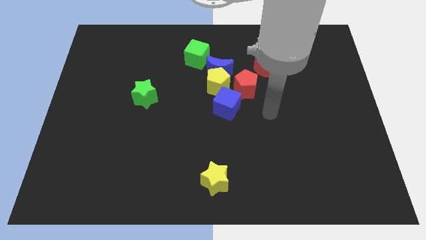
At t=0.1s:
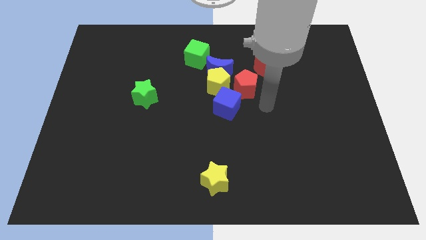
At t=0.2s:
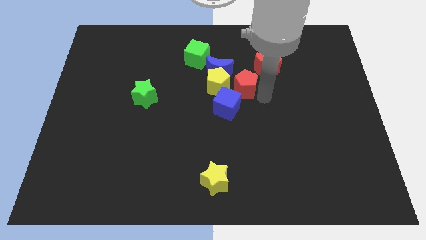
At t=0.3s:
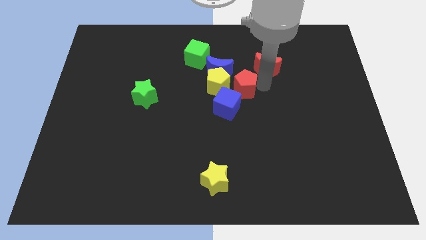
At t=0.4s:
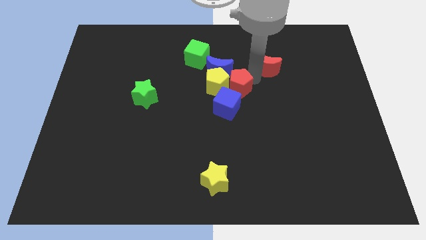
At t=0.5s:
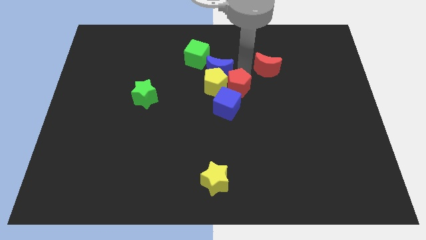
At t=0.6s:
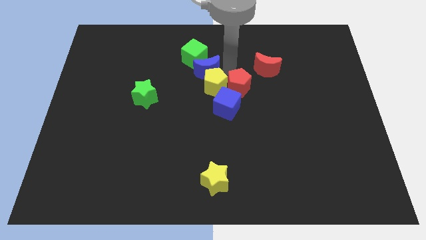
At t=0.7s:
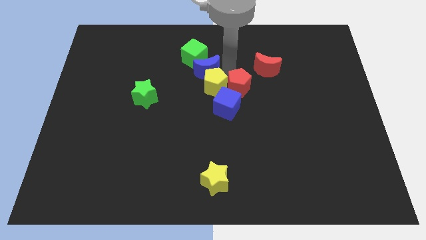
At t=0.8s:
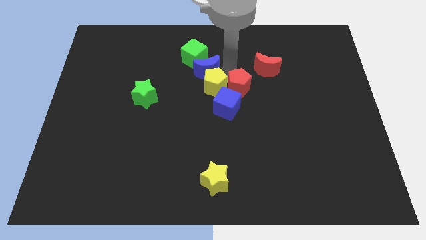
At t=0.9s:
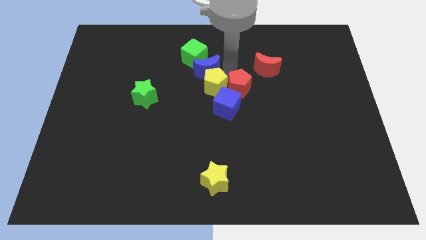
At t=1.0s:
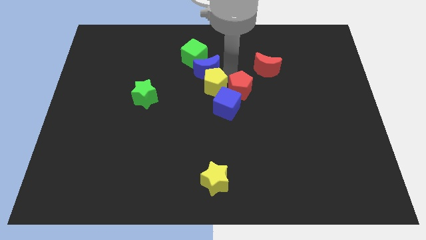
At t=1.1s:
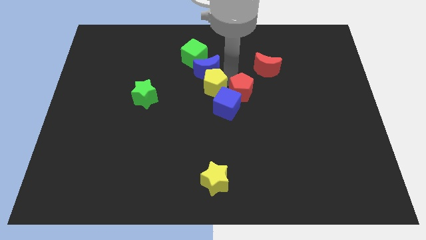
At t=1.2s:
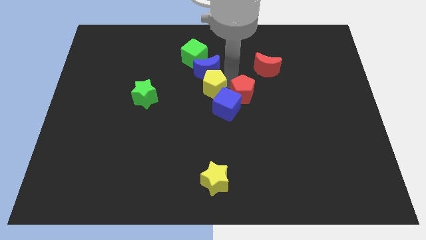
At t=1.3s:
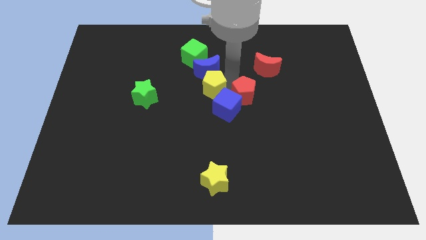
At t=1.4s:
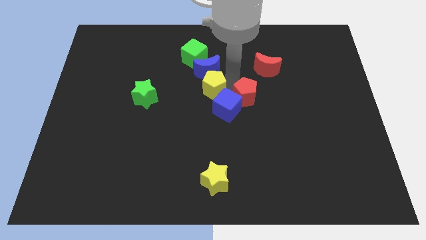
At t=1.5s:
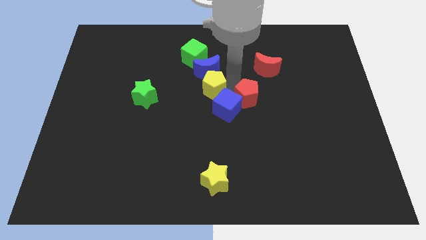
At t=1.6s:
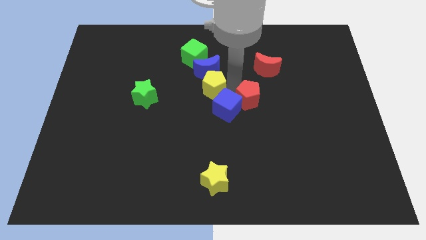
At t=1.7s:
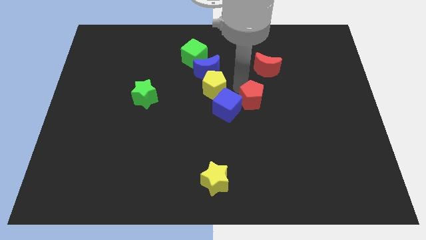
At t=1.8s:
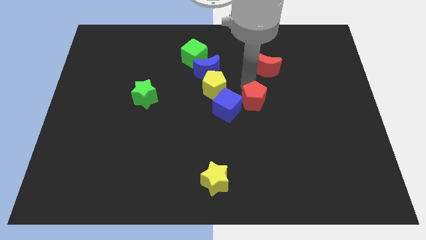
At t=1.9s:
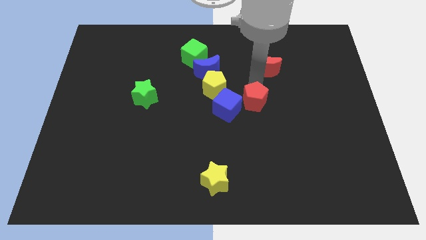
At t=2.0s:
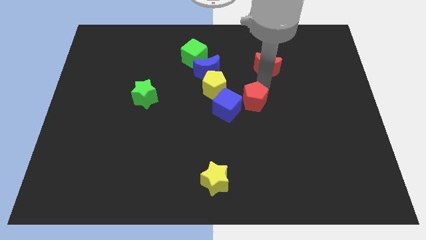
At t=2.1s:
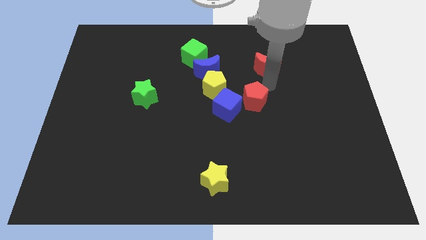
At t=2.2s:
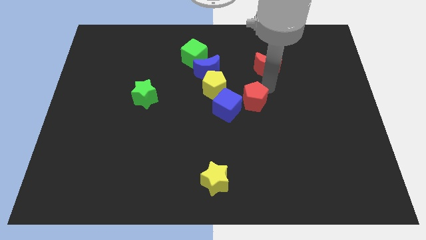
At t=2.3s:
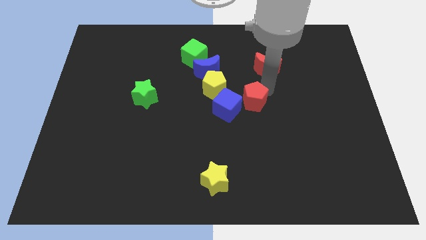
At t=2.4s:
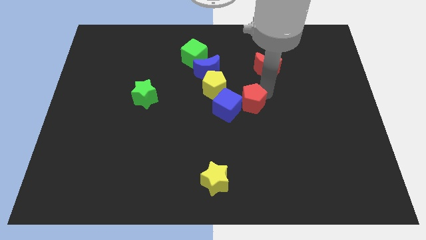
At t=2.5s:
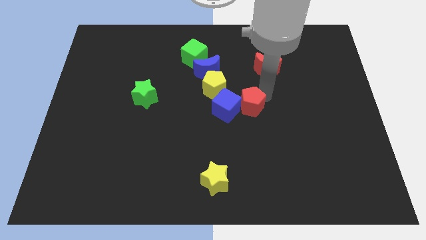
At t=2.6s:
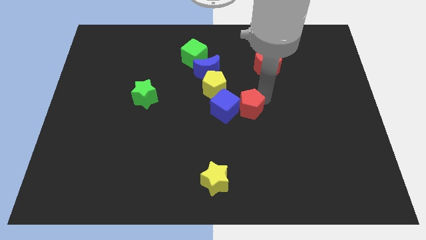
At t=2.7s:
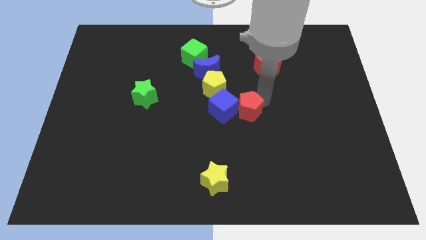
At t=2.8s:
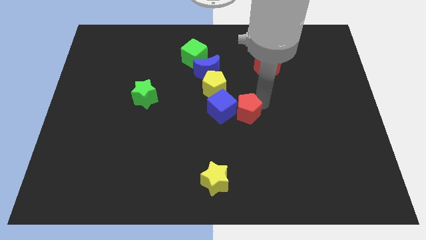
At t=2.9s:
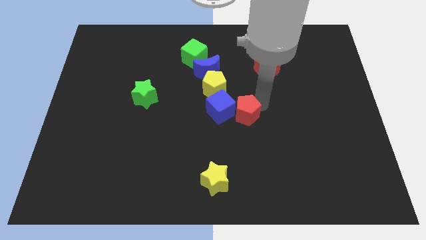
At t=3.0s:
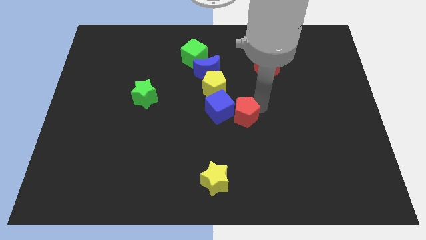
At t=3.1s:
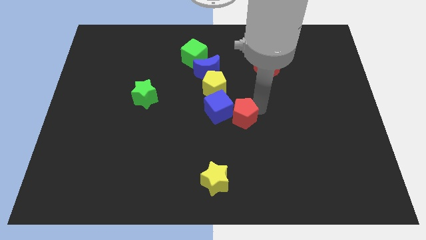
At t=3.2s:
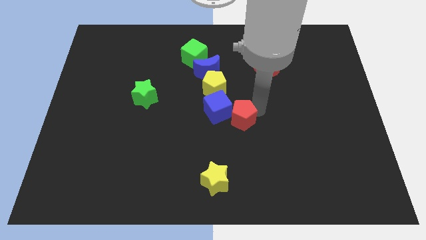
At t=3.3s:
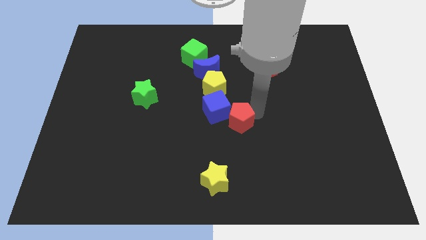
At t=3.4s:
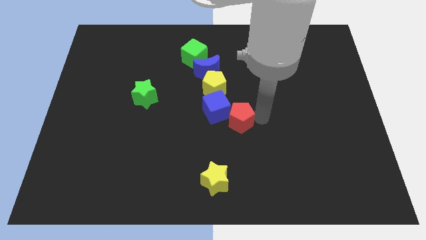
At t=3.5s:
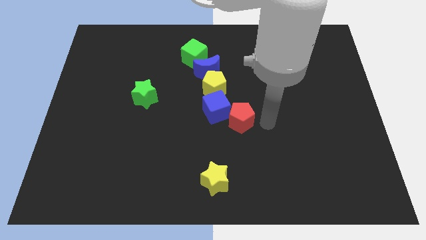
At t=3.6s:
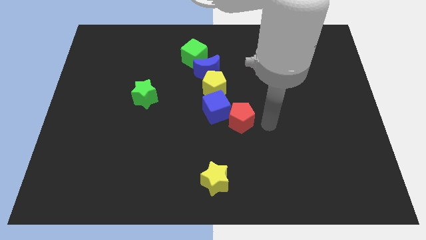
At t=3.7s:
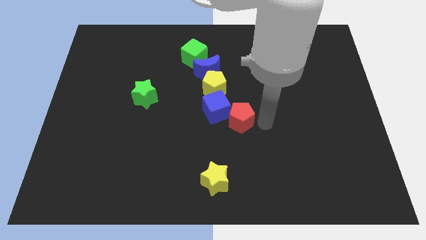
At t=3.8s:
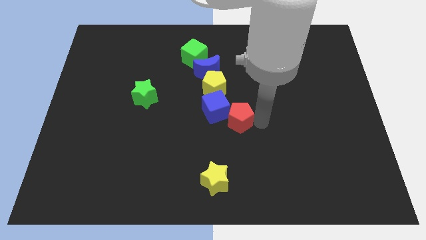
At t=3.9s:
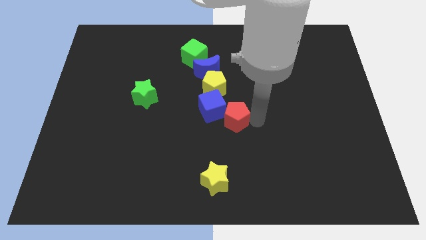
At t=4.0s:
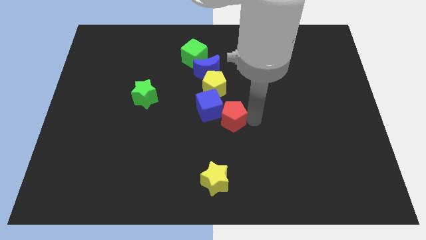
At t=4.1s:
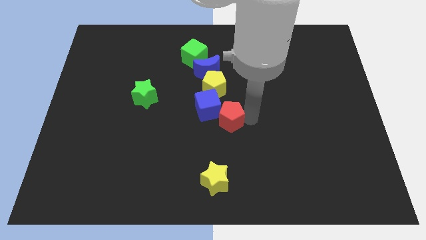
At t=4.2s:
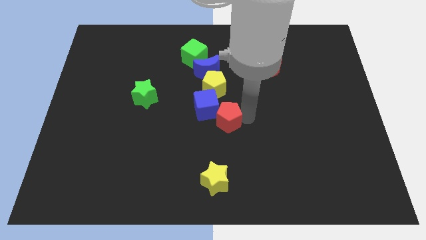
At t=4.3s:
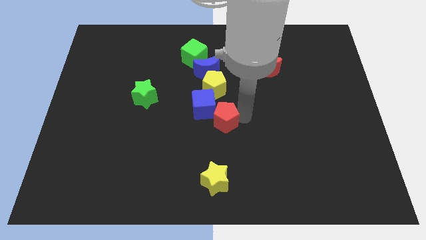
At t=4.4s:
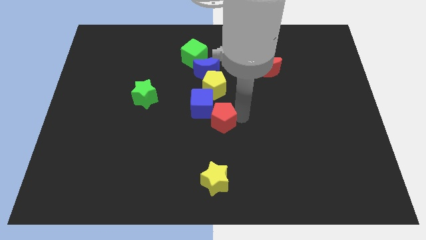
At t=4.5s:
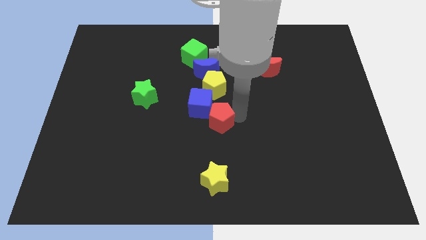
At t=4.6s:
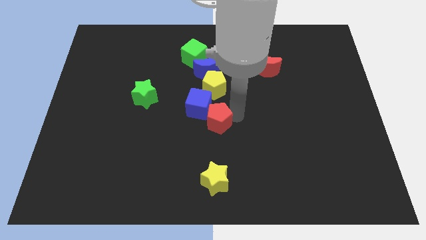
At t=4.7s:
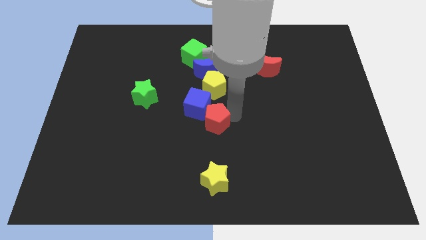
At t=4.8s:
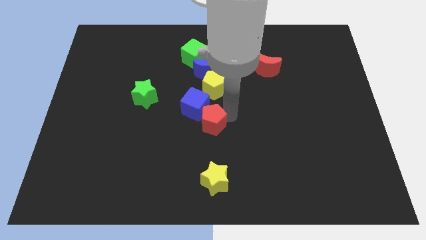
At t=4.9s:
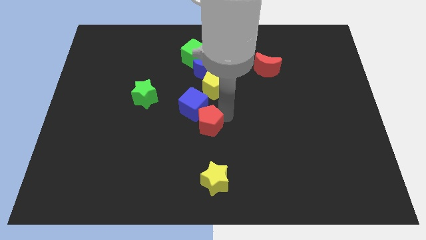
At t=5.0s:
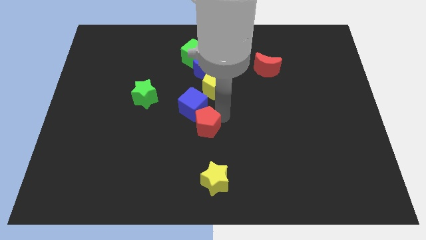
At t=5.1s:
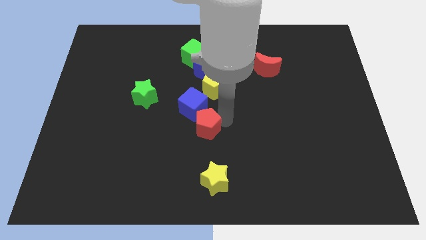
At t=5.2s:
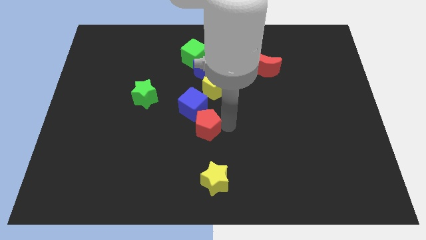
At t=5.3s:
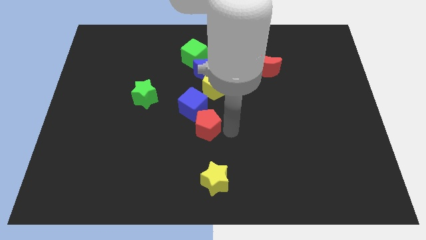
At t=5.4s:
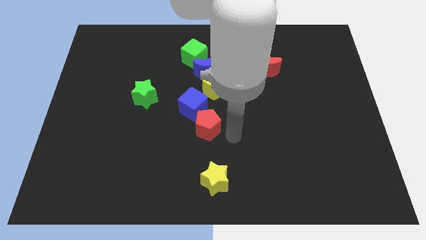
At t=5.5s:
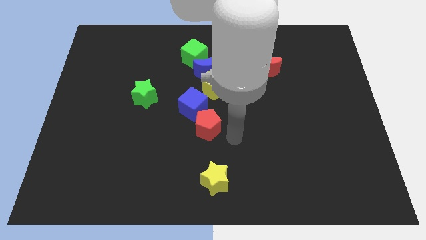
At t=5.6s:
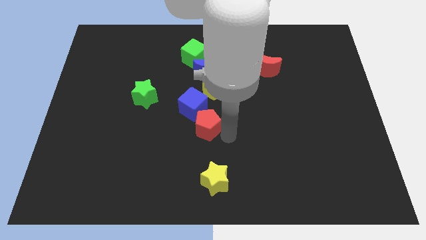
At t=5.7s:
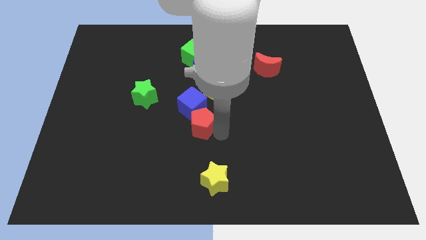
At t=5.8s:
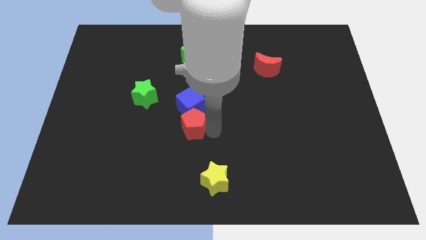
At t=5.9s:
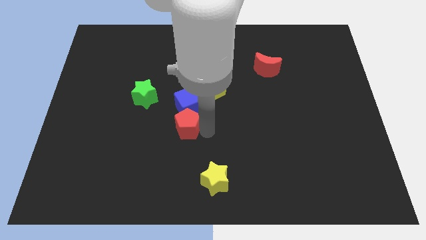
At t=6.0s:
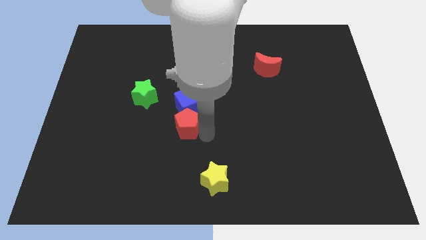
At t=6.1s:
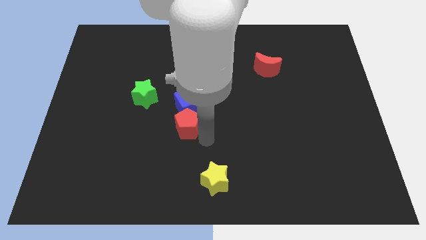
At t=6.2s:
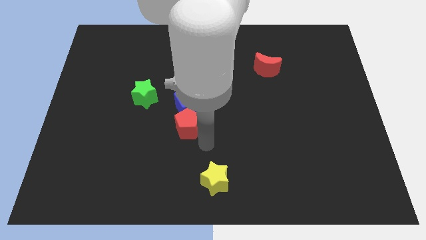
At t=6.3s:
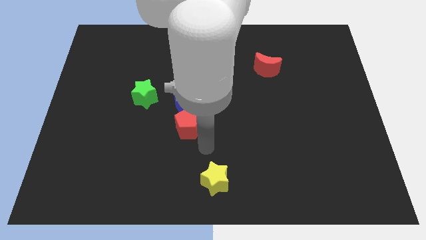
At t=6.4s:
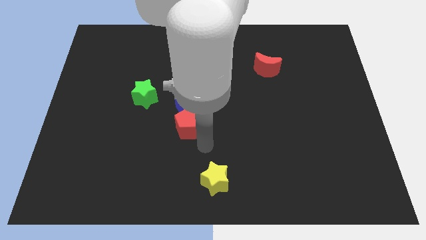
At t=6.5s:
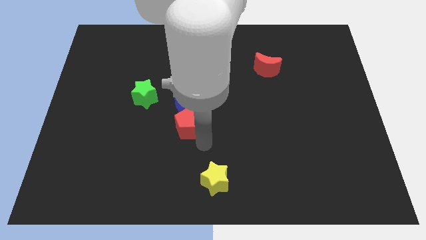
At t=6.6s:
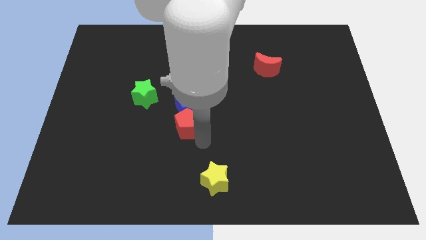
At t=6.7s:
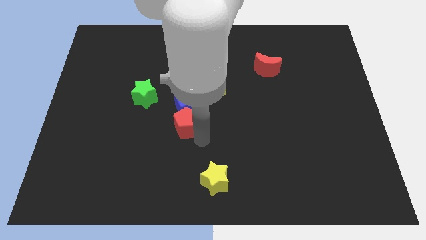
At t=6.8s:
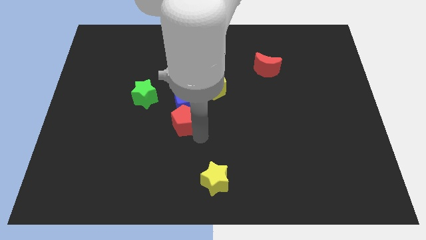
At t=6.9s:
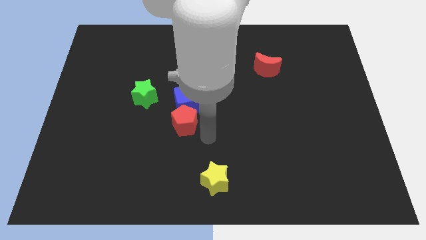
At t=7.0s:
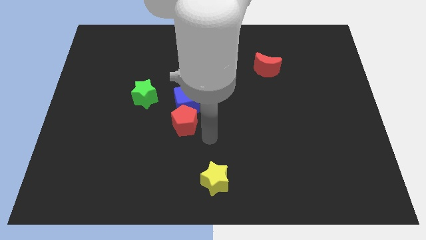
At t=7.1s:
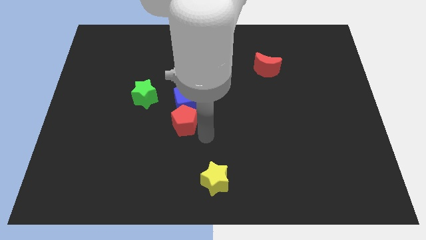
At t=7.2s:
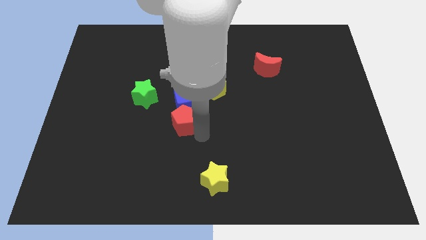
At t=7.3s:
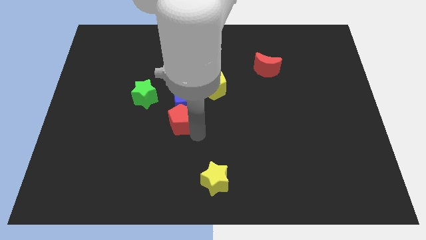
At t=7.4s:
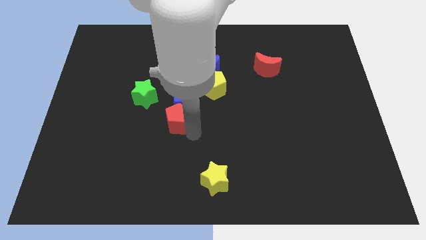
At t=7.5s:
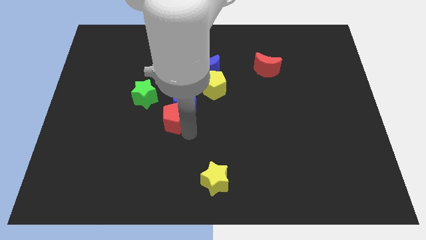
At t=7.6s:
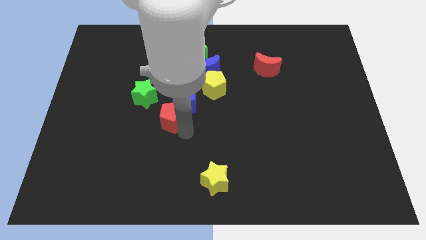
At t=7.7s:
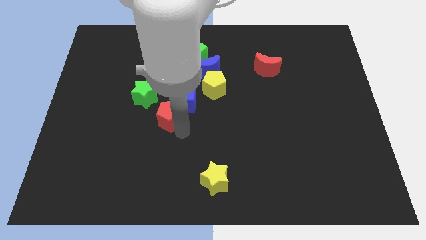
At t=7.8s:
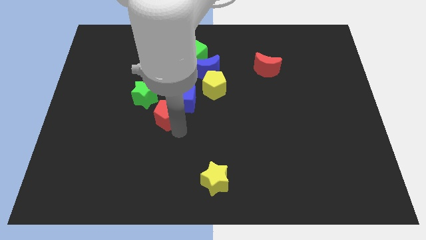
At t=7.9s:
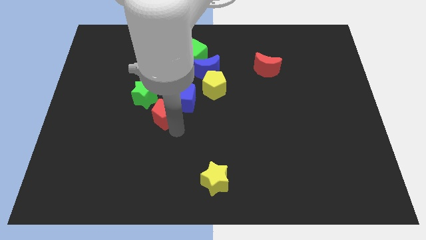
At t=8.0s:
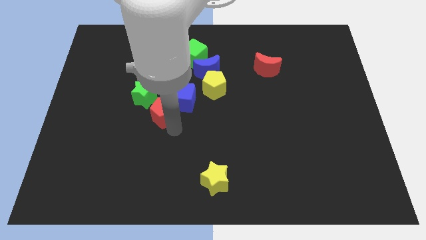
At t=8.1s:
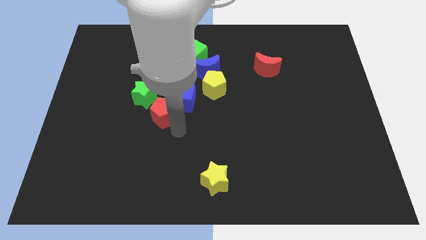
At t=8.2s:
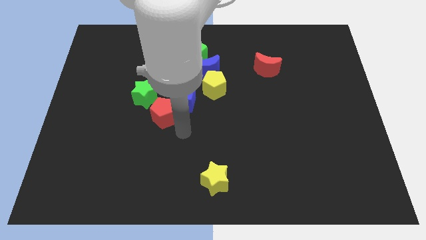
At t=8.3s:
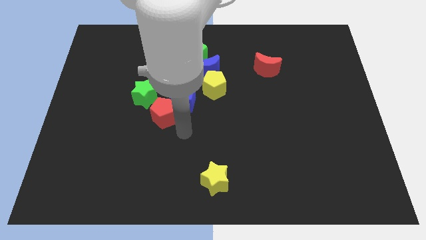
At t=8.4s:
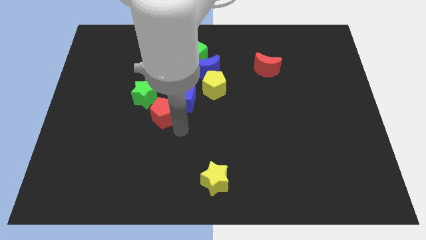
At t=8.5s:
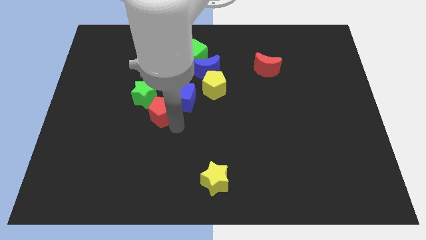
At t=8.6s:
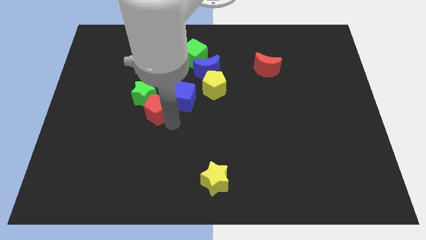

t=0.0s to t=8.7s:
put the red pentagon close to the green star
